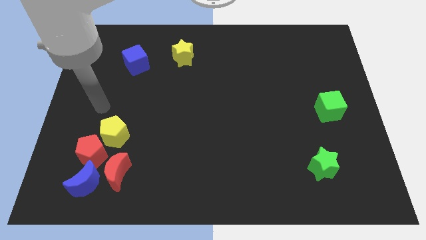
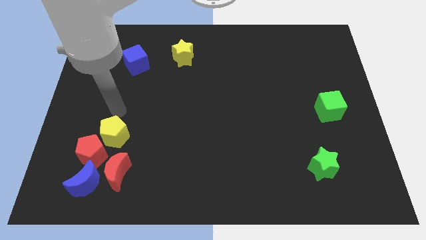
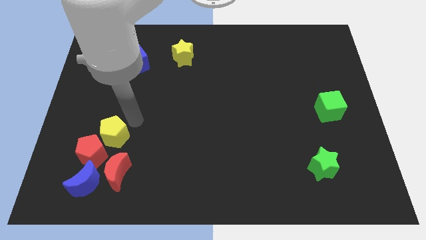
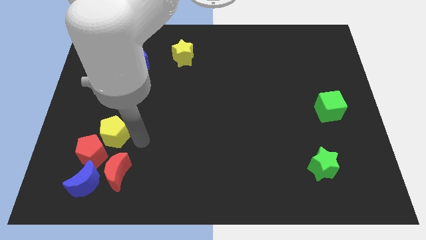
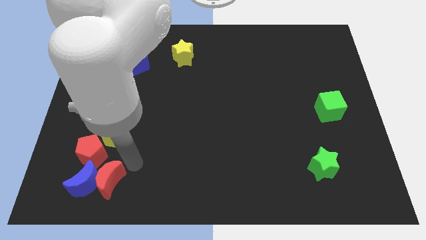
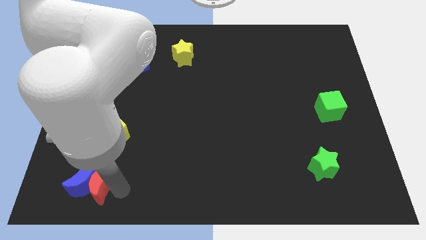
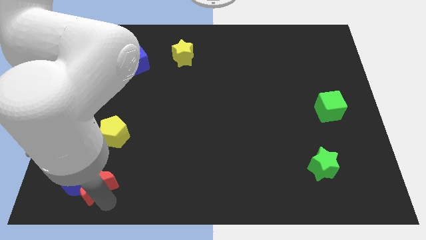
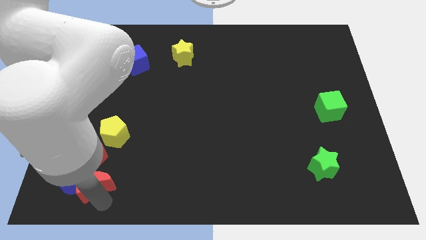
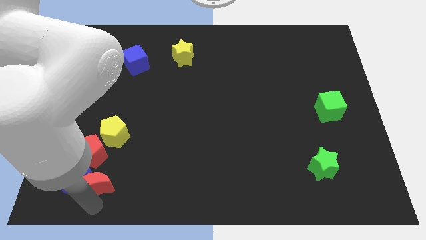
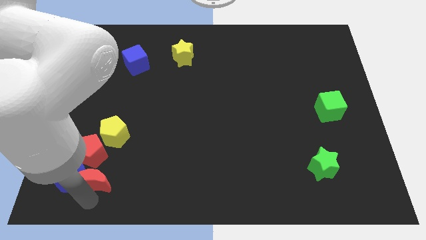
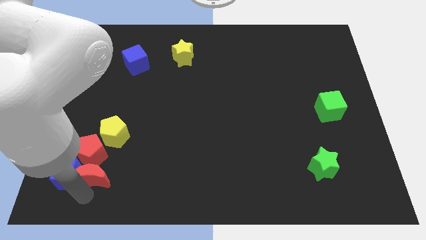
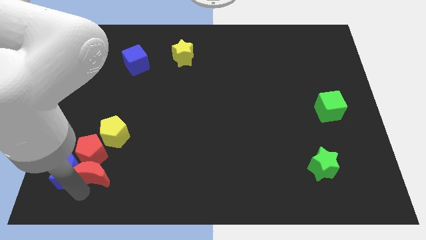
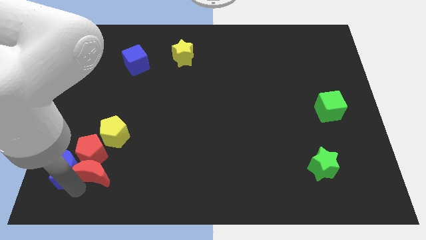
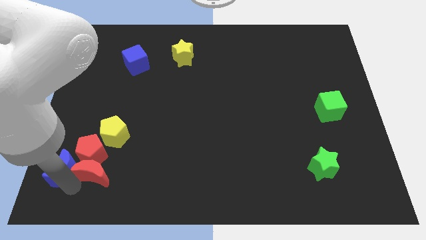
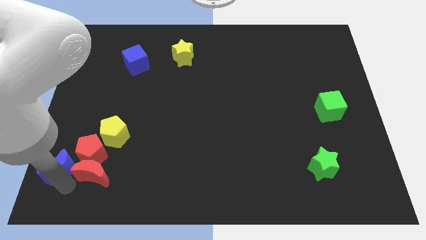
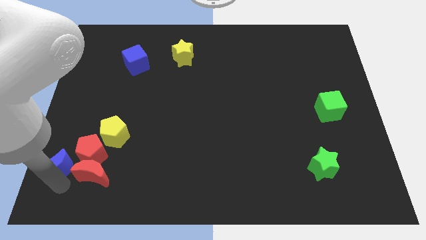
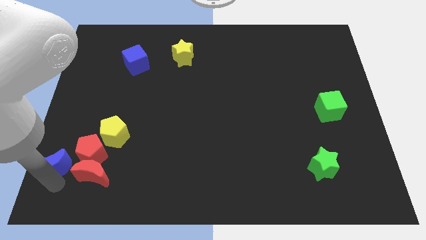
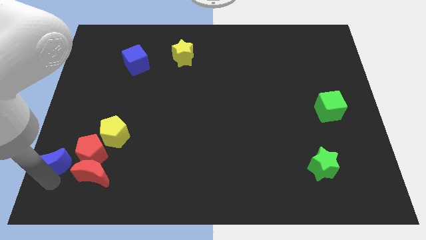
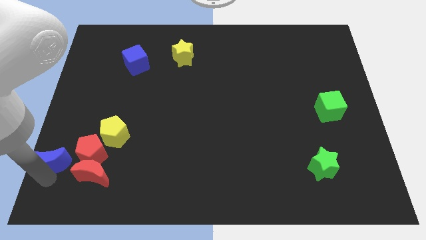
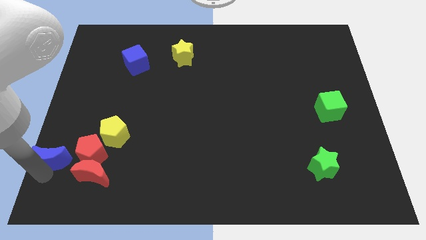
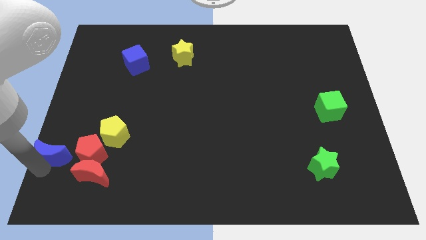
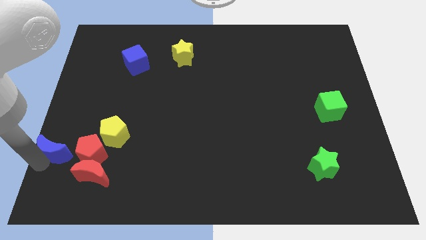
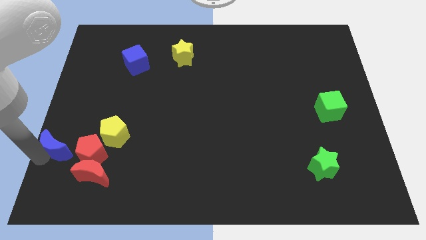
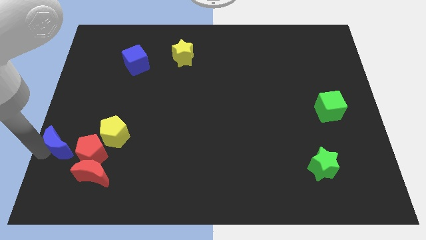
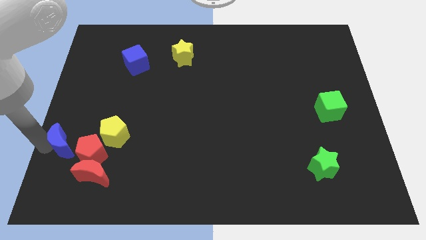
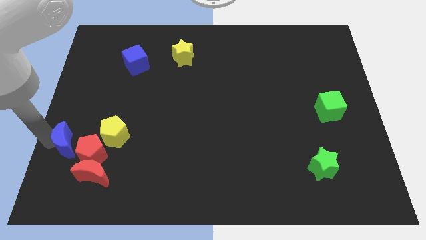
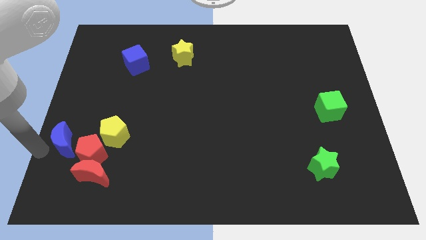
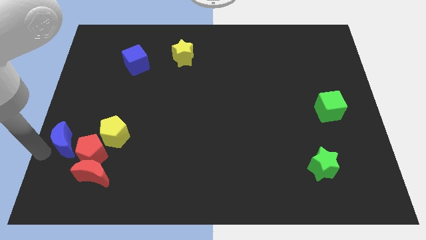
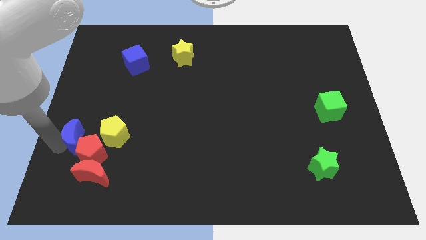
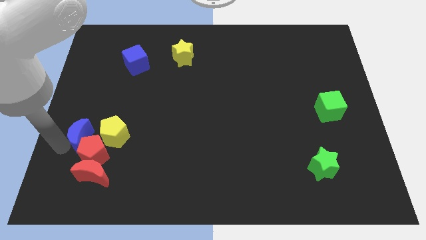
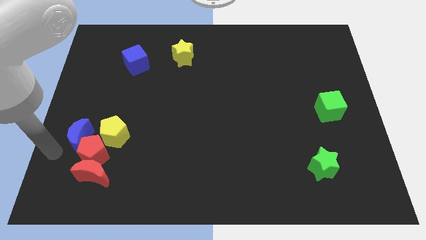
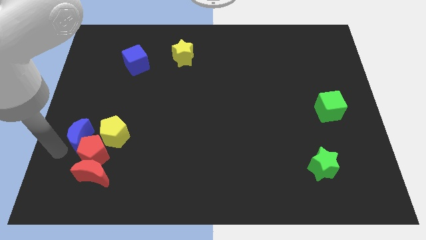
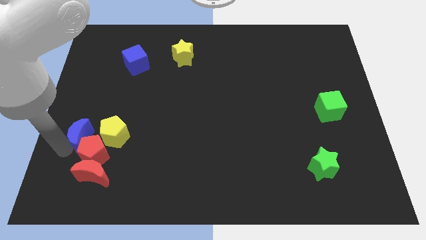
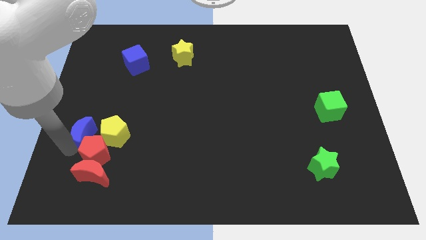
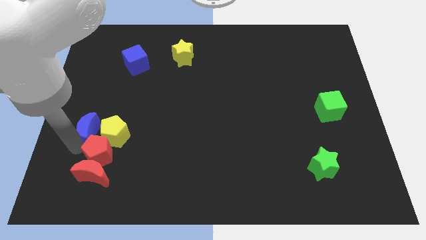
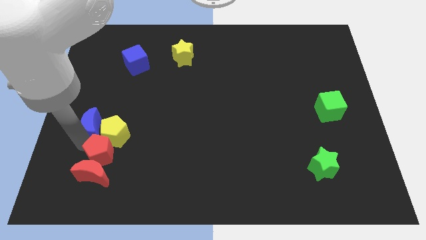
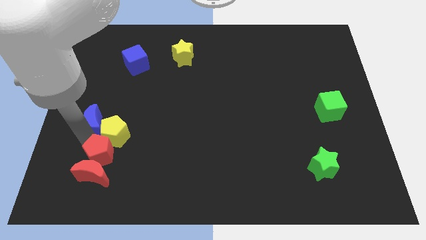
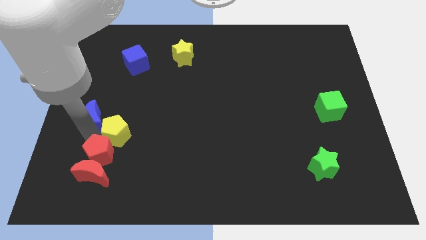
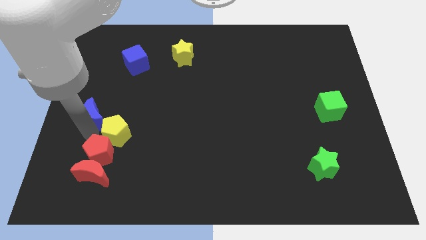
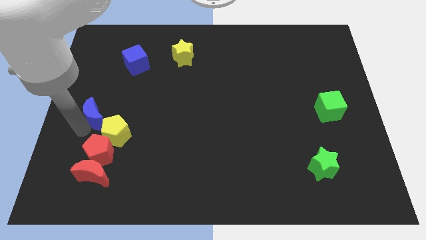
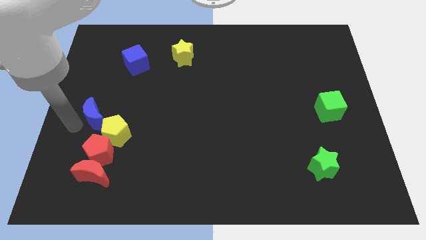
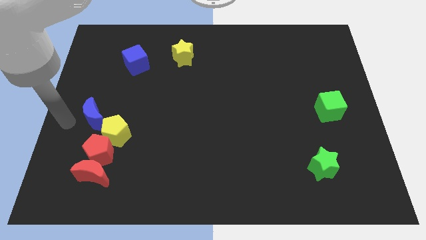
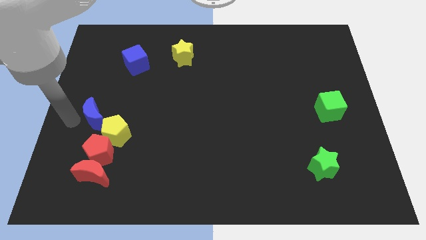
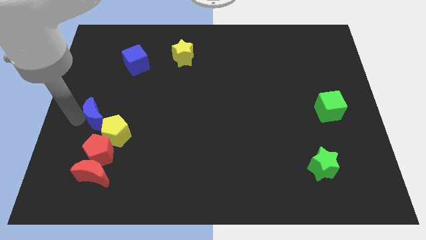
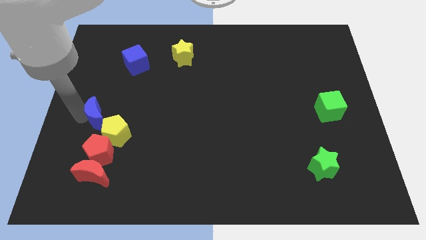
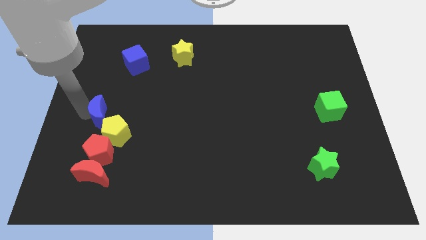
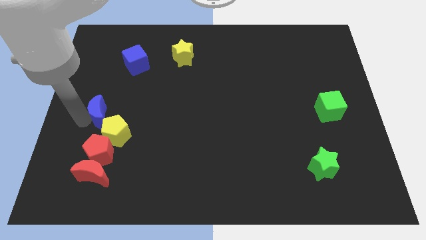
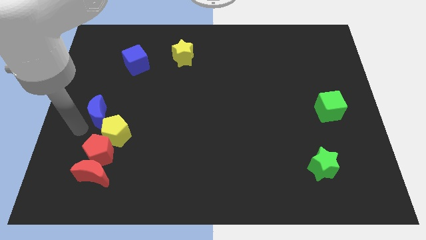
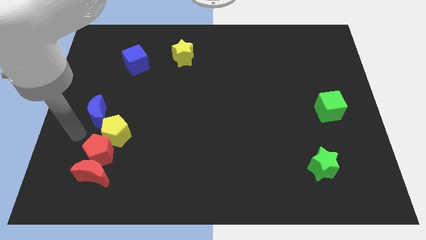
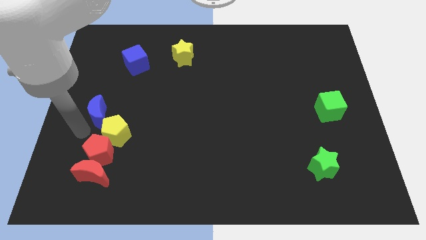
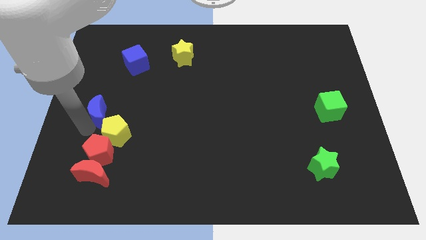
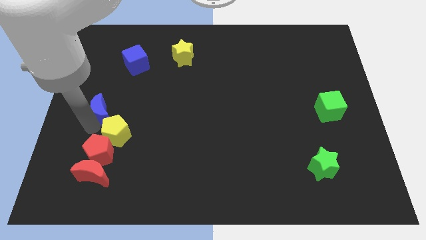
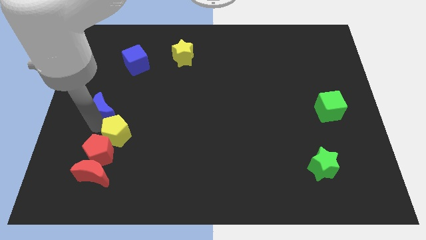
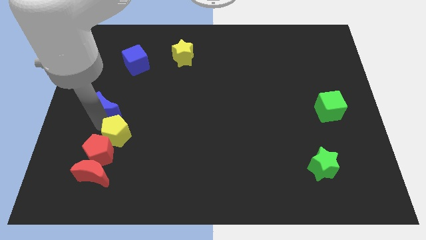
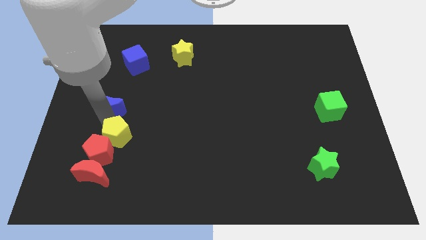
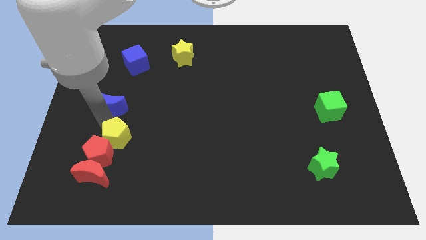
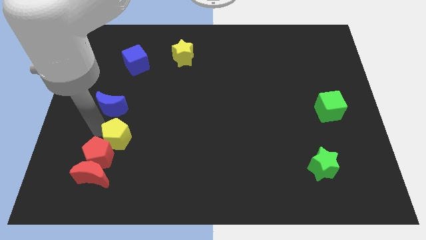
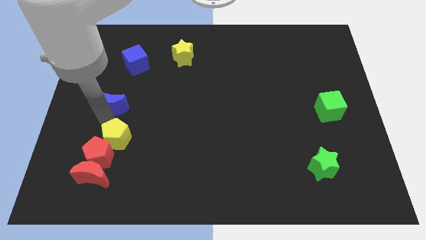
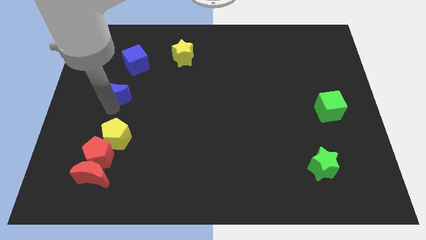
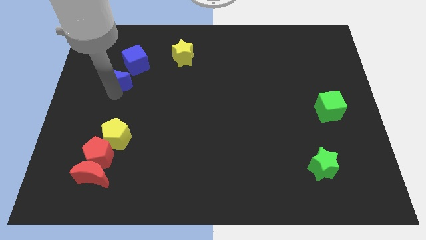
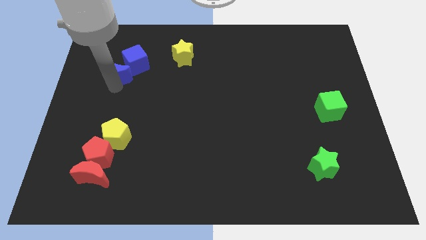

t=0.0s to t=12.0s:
push the blue moon close to the blue cube

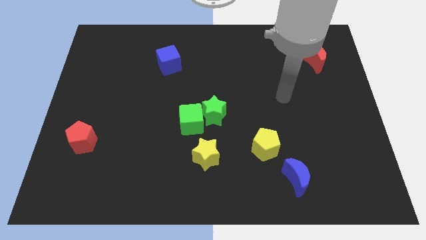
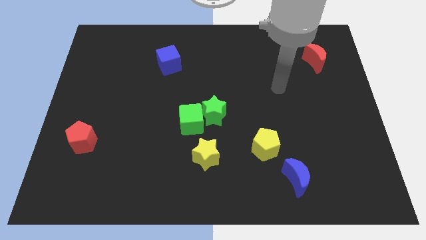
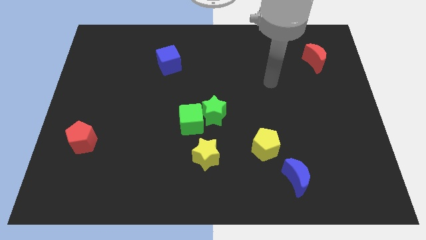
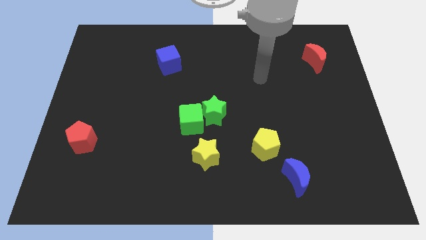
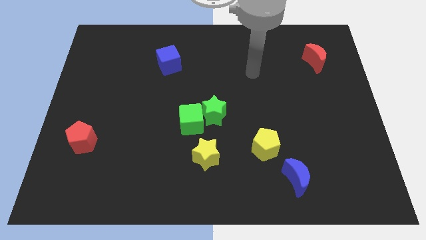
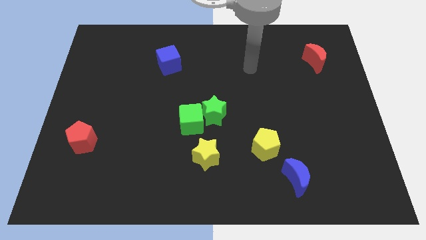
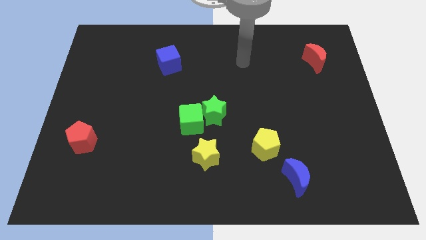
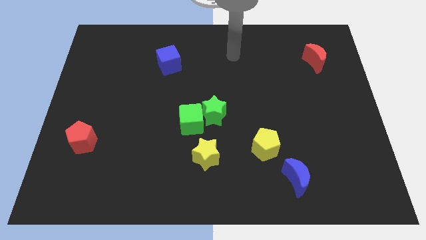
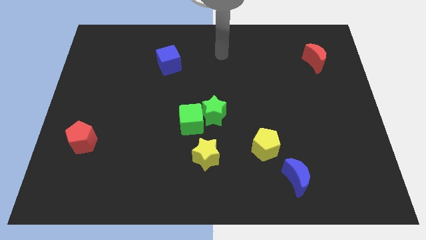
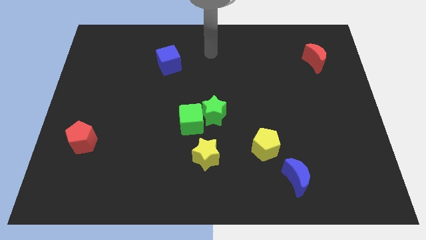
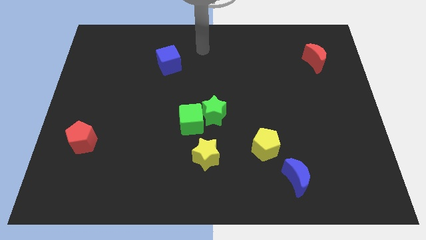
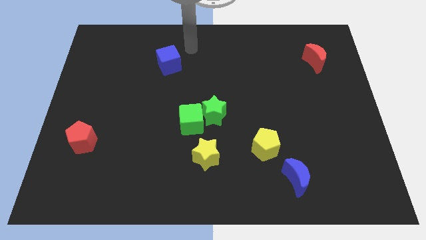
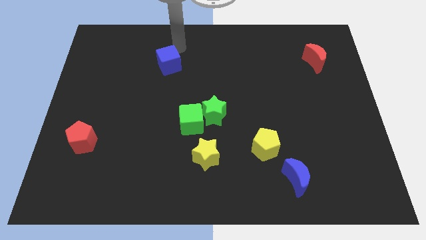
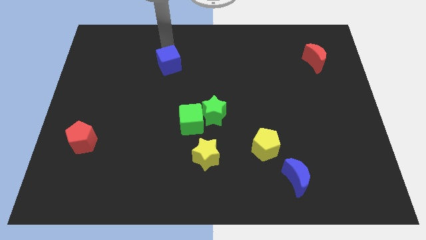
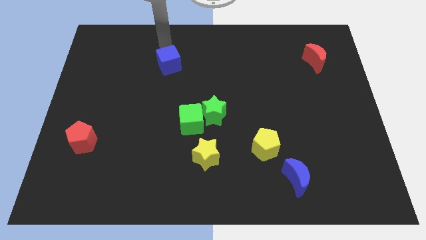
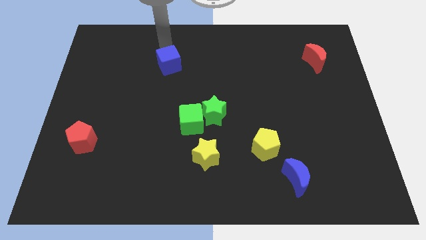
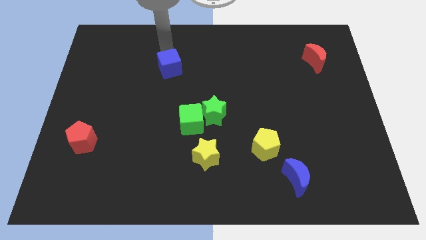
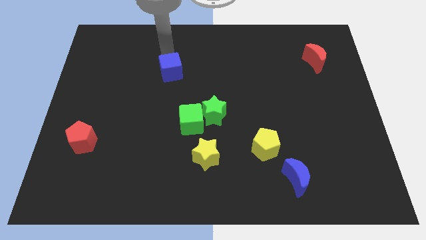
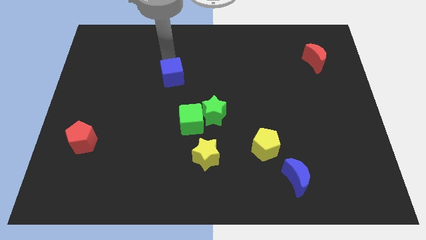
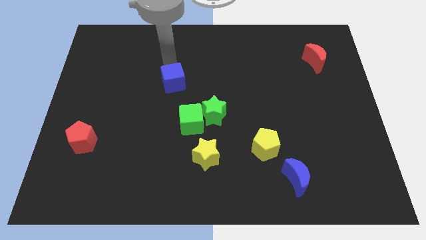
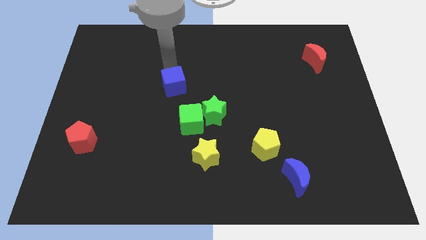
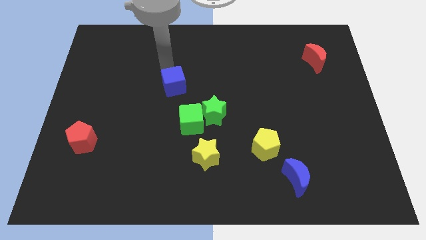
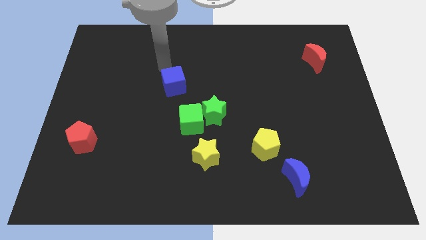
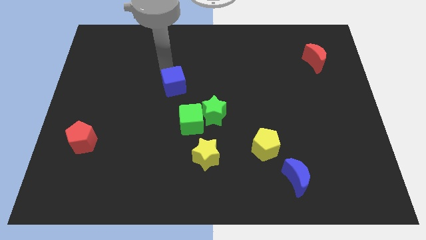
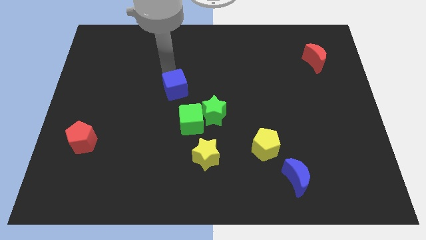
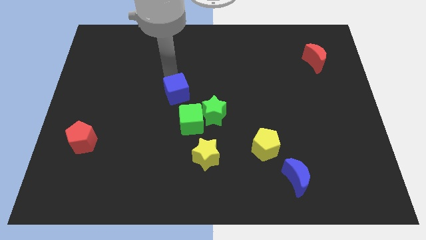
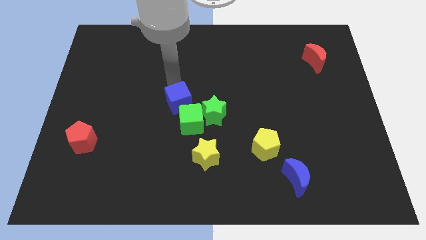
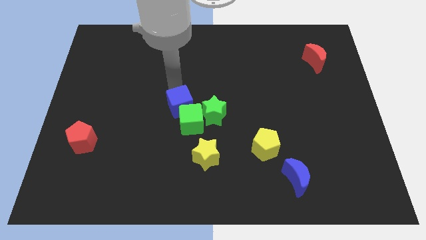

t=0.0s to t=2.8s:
slide the blue cube towards the green cube
